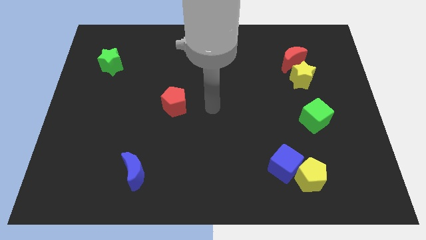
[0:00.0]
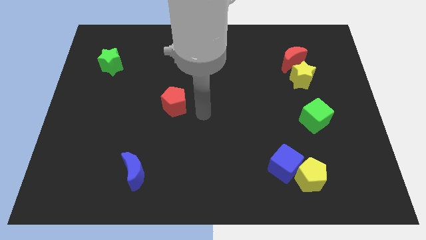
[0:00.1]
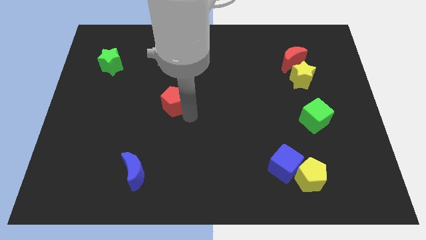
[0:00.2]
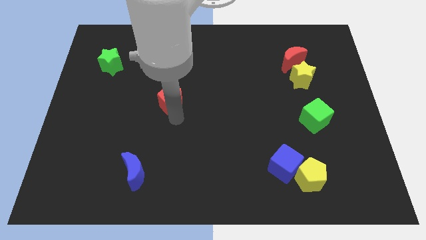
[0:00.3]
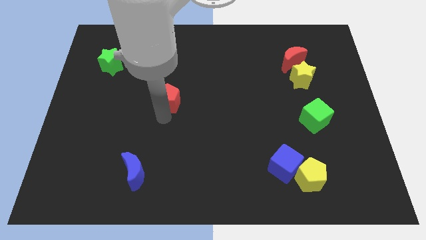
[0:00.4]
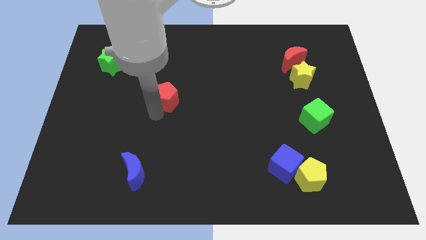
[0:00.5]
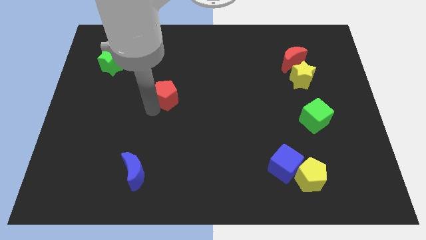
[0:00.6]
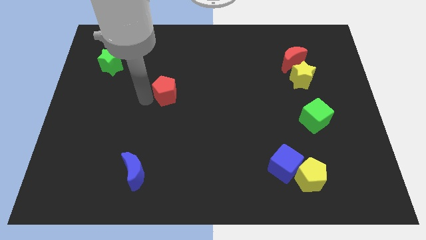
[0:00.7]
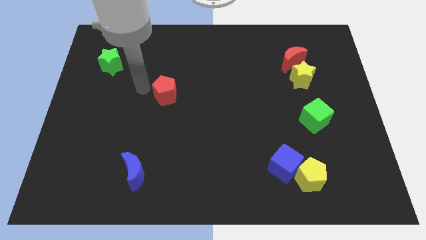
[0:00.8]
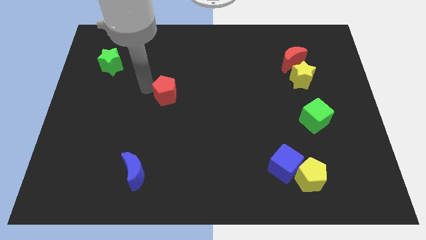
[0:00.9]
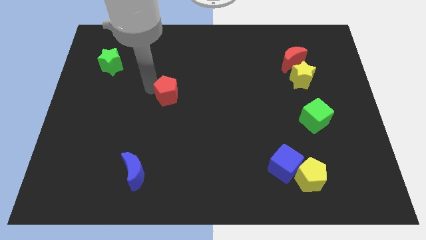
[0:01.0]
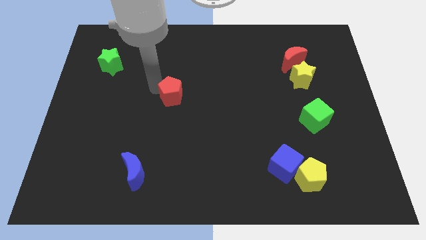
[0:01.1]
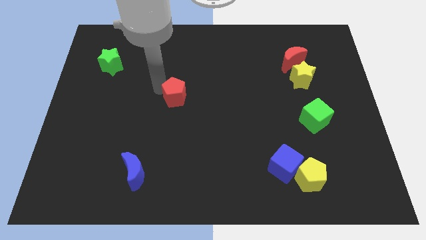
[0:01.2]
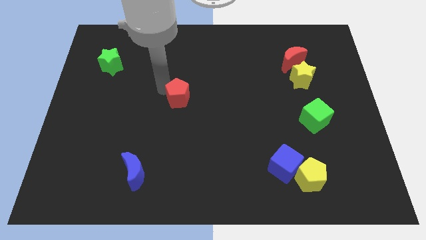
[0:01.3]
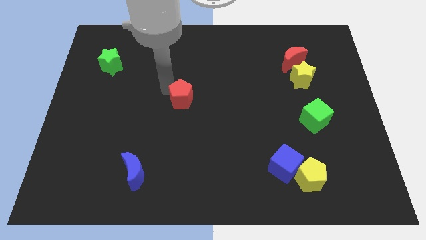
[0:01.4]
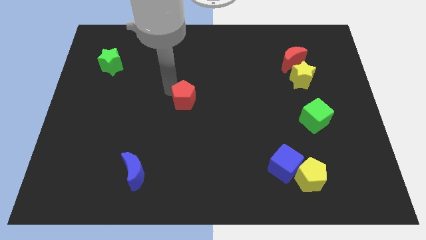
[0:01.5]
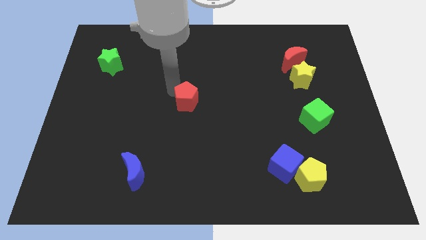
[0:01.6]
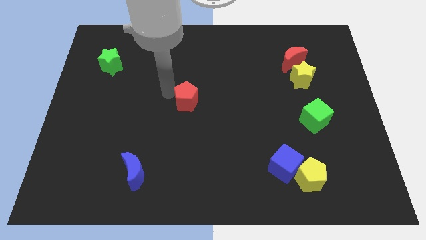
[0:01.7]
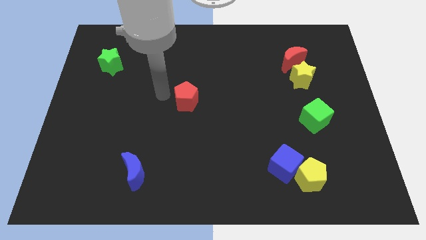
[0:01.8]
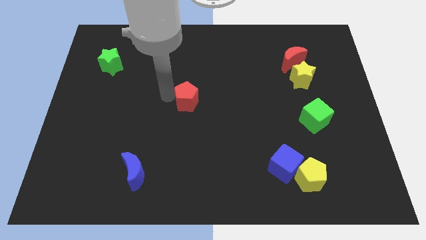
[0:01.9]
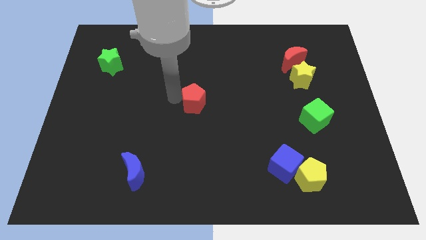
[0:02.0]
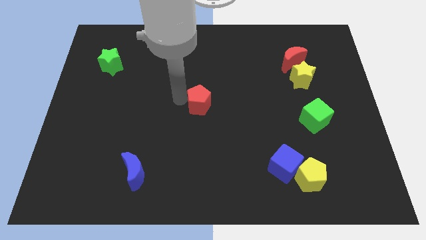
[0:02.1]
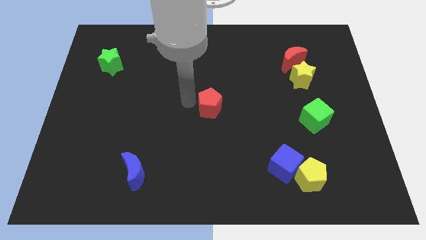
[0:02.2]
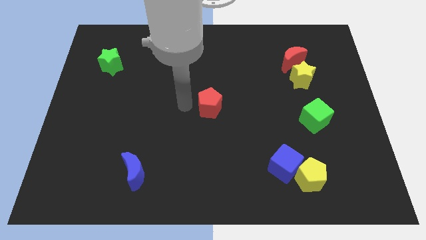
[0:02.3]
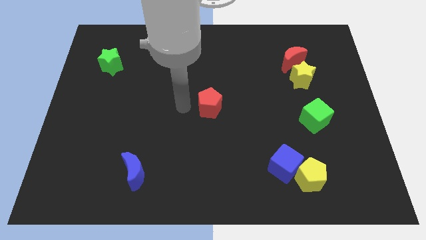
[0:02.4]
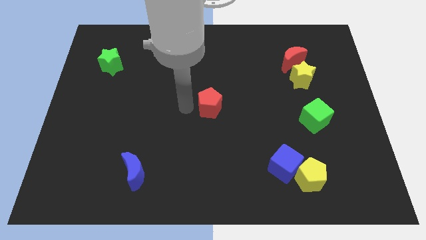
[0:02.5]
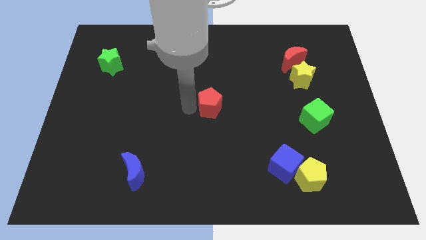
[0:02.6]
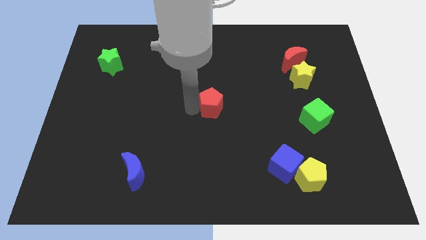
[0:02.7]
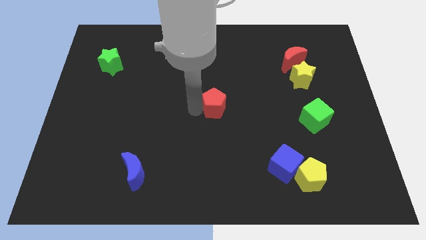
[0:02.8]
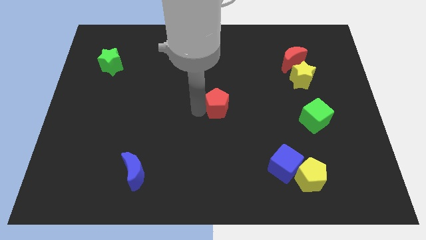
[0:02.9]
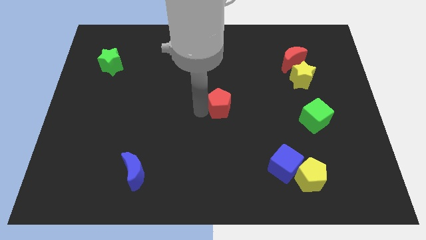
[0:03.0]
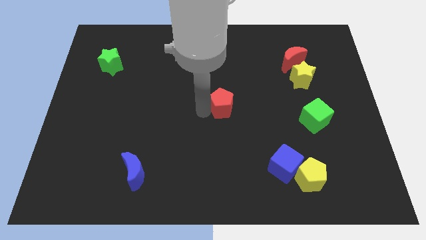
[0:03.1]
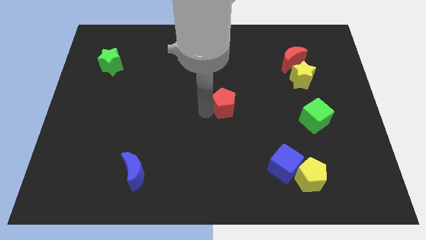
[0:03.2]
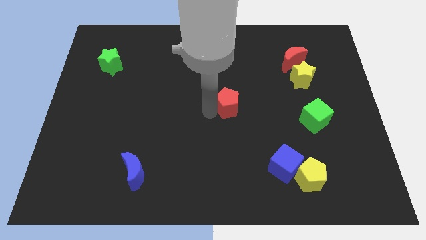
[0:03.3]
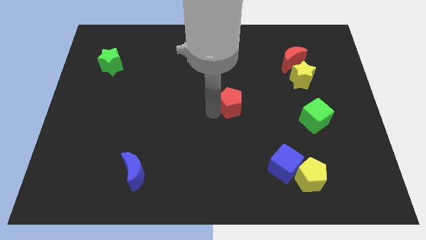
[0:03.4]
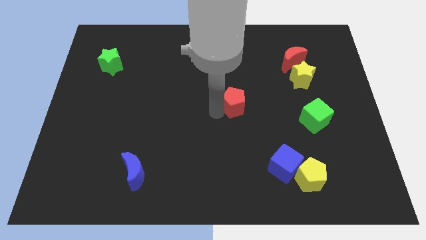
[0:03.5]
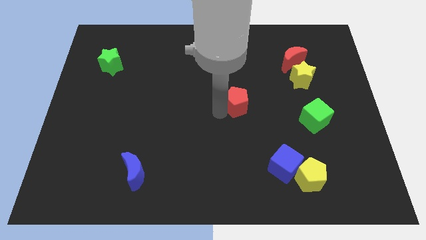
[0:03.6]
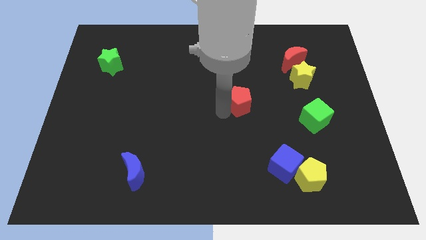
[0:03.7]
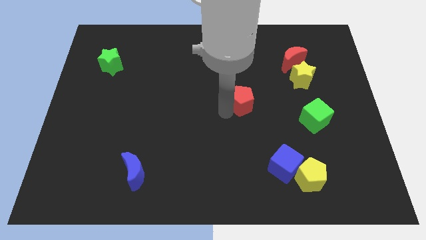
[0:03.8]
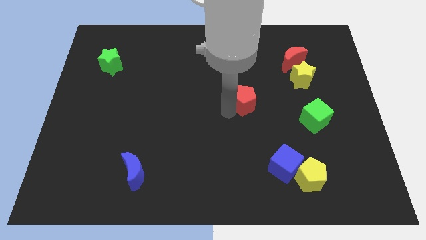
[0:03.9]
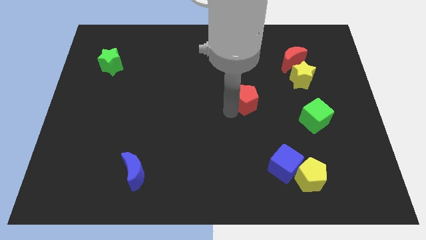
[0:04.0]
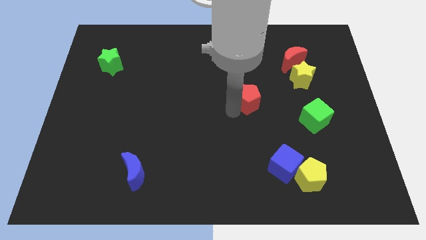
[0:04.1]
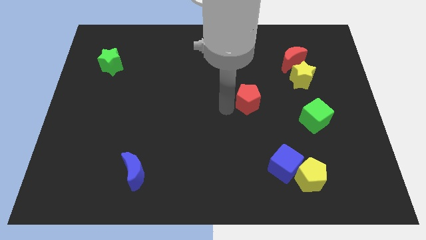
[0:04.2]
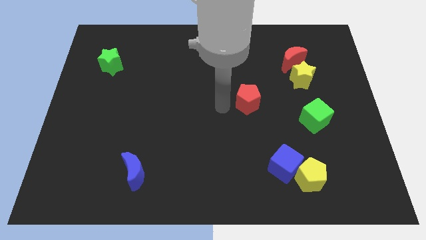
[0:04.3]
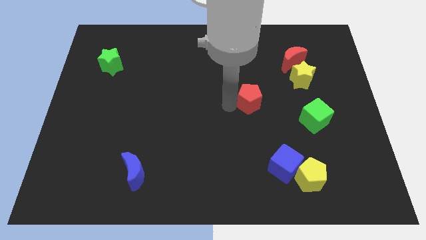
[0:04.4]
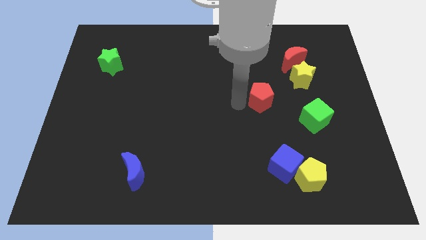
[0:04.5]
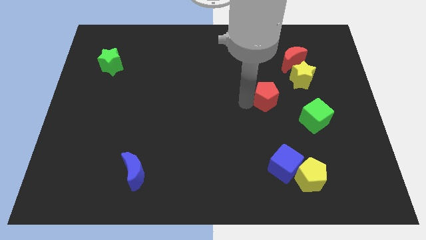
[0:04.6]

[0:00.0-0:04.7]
push the red pentagon diagonally down and to the left of the yellow star

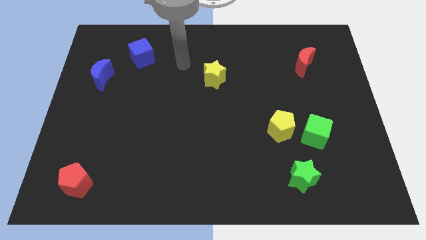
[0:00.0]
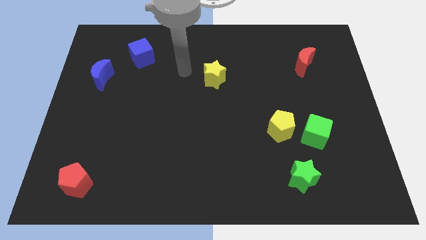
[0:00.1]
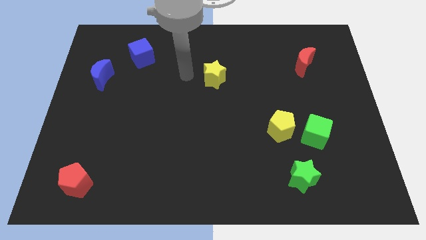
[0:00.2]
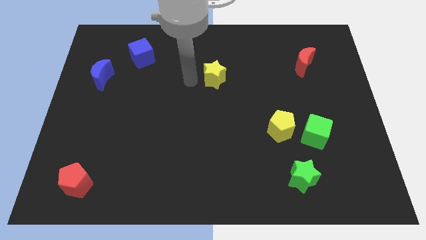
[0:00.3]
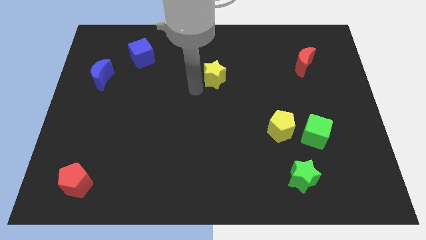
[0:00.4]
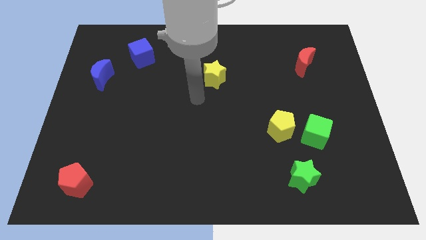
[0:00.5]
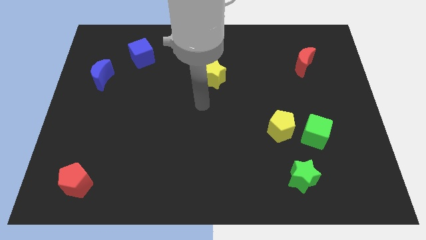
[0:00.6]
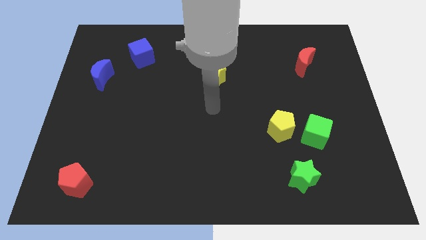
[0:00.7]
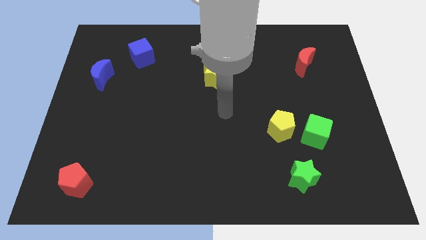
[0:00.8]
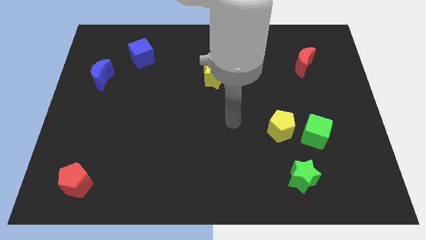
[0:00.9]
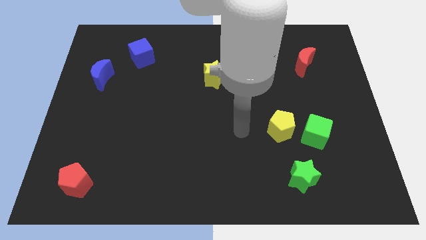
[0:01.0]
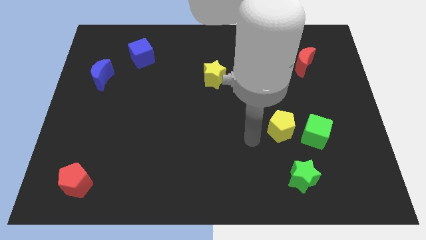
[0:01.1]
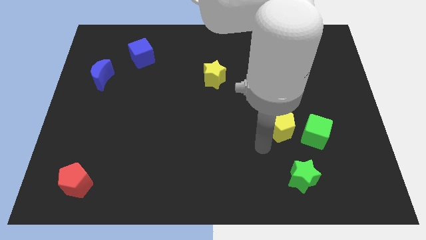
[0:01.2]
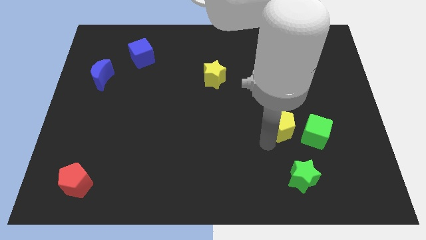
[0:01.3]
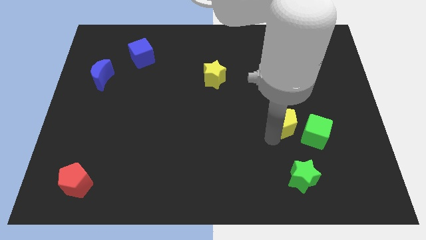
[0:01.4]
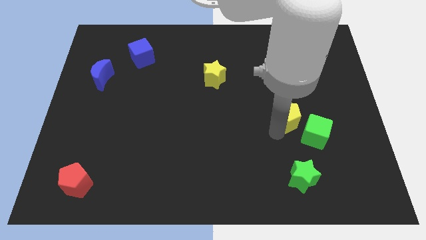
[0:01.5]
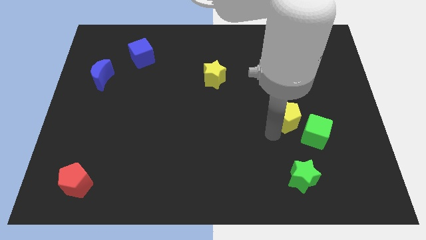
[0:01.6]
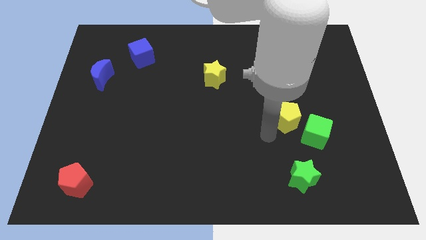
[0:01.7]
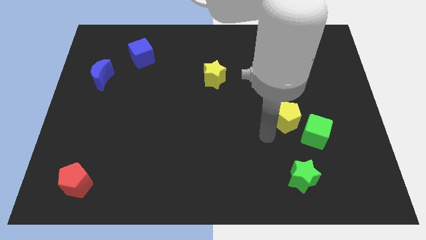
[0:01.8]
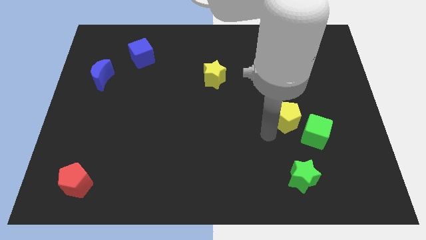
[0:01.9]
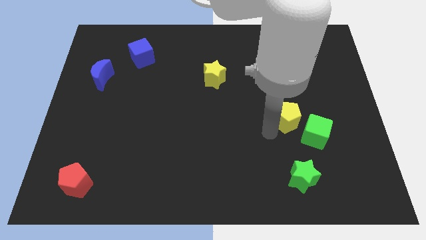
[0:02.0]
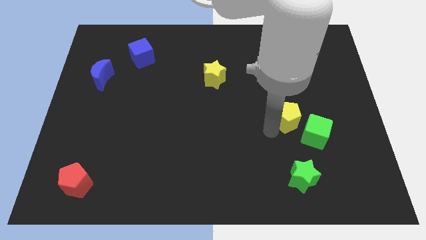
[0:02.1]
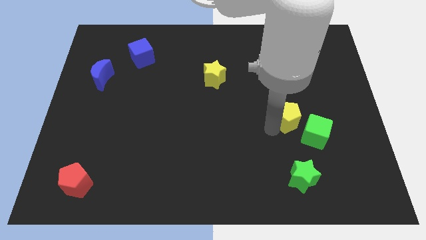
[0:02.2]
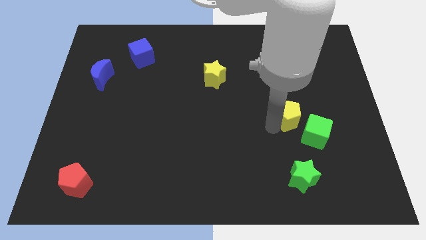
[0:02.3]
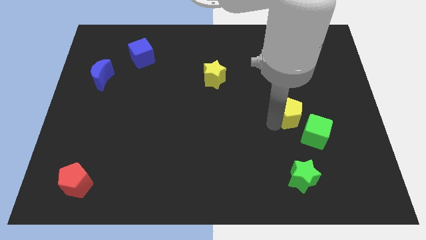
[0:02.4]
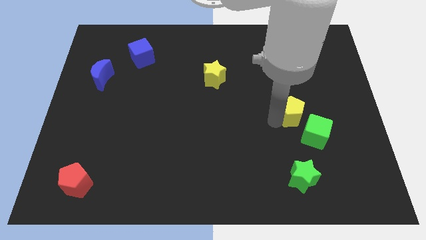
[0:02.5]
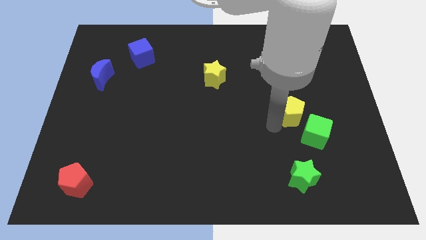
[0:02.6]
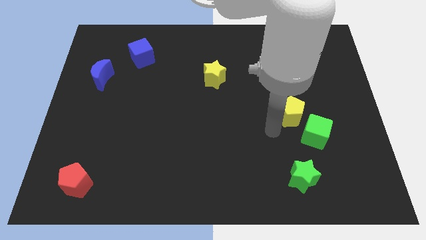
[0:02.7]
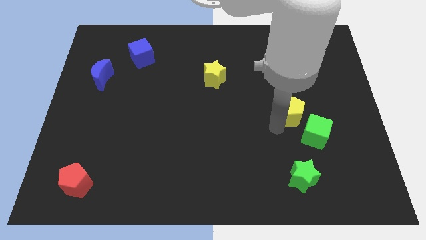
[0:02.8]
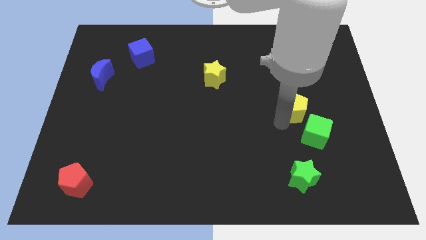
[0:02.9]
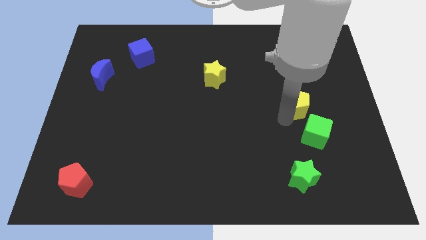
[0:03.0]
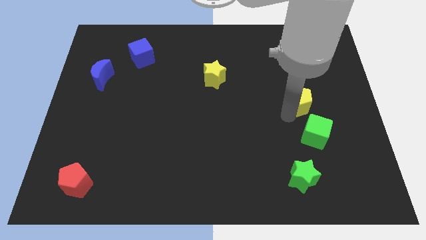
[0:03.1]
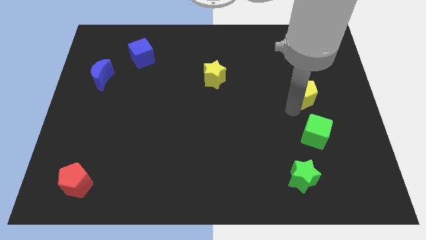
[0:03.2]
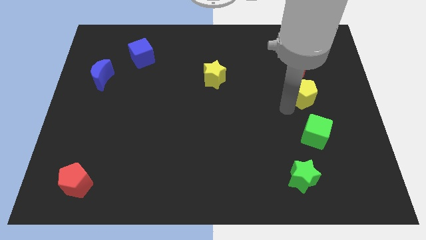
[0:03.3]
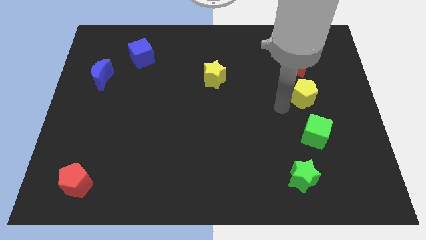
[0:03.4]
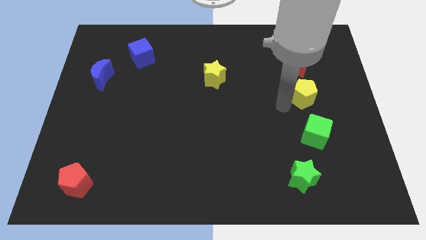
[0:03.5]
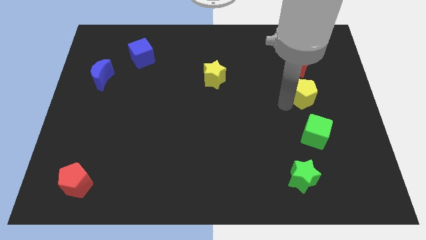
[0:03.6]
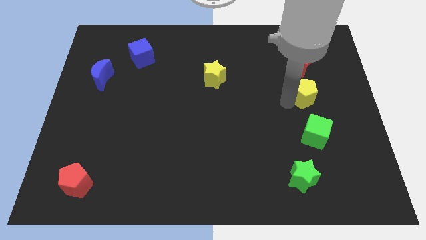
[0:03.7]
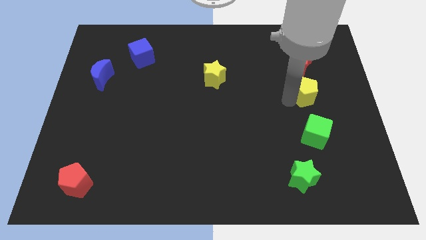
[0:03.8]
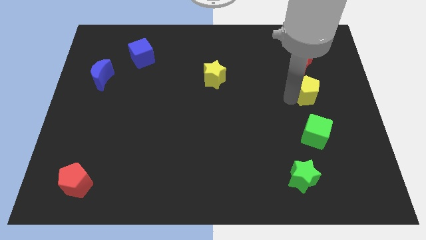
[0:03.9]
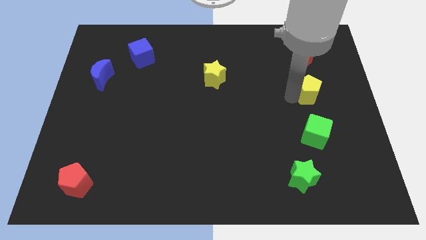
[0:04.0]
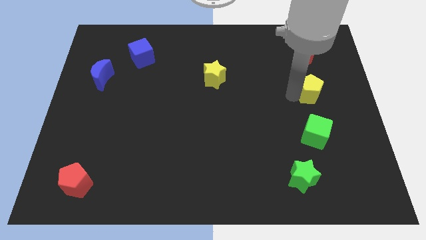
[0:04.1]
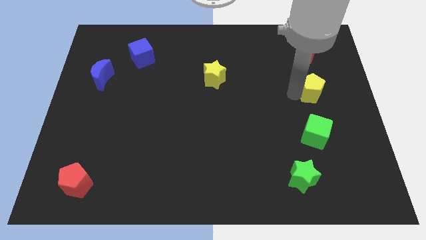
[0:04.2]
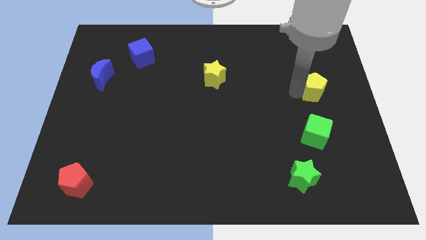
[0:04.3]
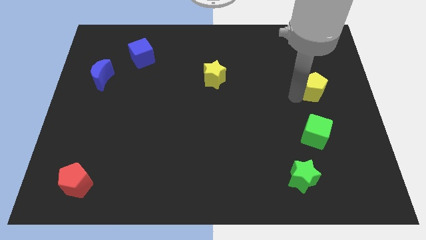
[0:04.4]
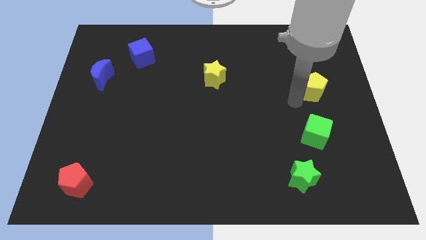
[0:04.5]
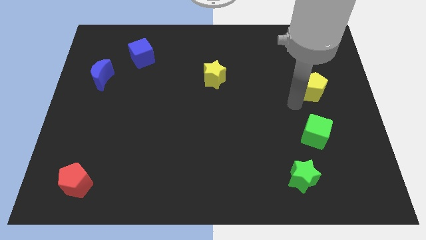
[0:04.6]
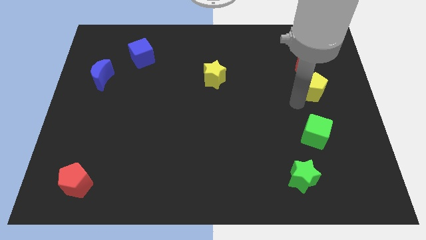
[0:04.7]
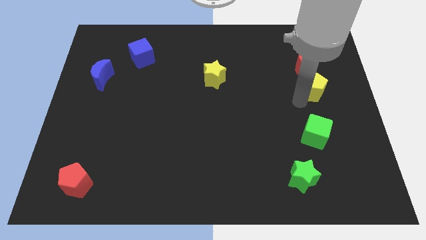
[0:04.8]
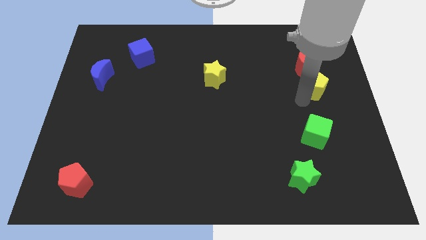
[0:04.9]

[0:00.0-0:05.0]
put the yellow pentagon to the bottom right side of the red moon
